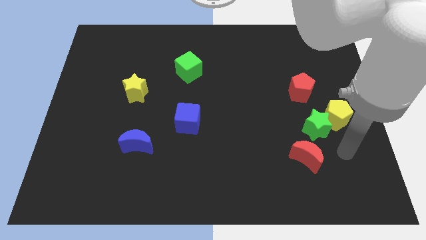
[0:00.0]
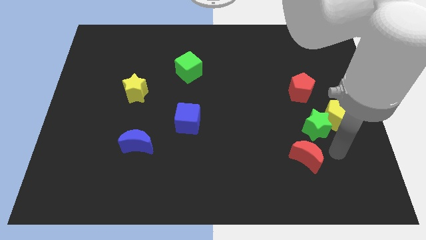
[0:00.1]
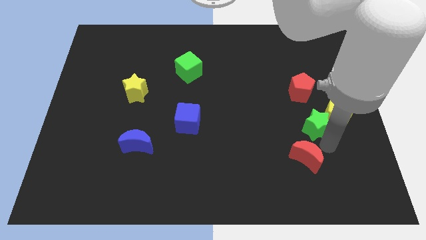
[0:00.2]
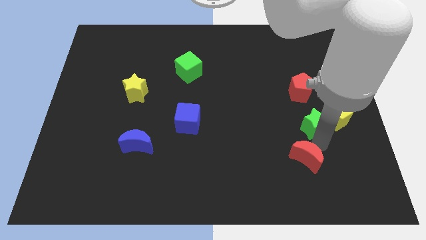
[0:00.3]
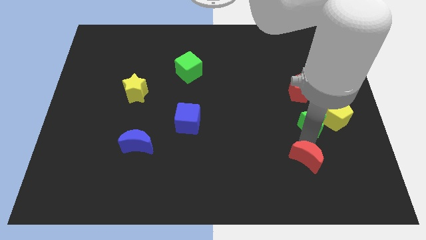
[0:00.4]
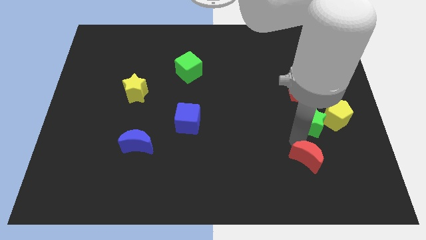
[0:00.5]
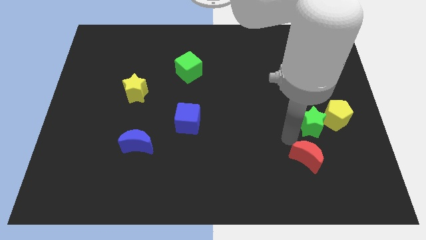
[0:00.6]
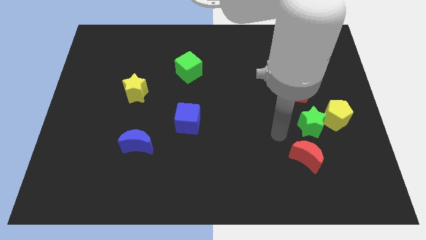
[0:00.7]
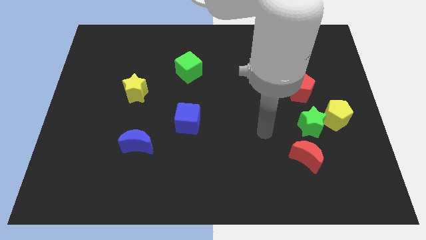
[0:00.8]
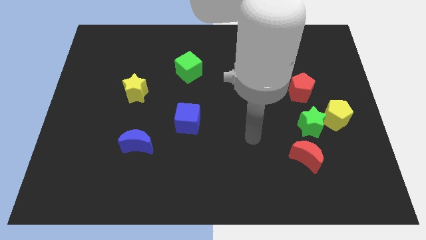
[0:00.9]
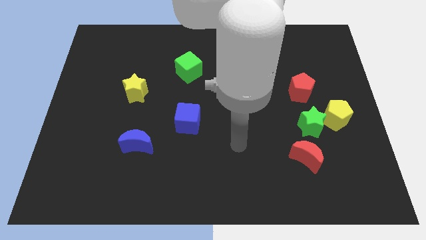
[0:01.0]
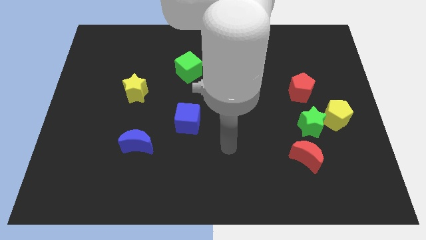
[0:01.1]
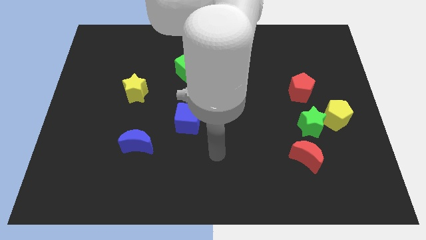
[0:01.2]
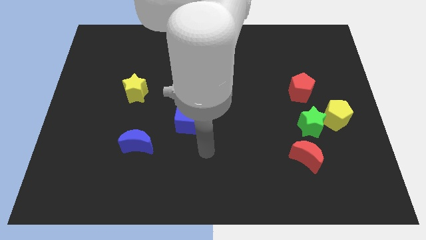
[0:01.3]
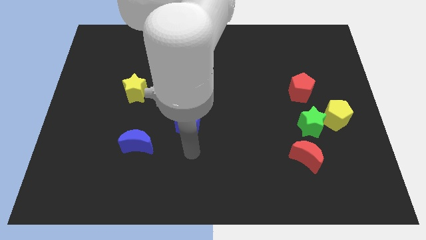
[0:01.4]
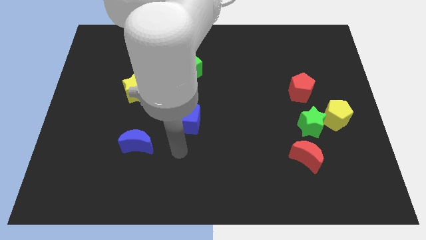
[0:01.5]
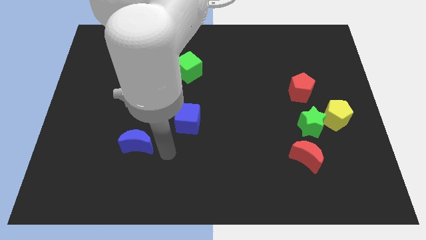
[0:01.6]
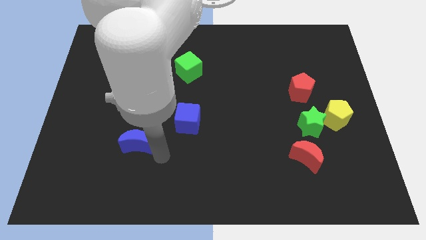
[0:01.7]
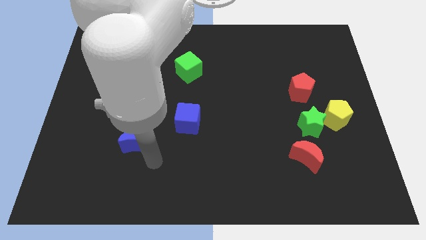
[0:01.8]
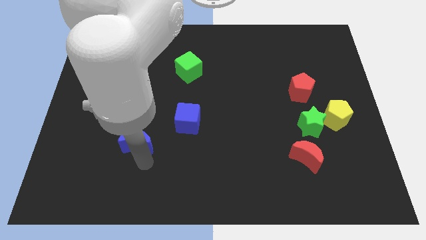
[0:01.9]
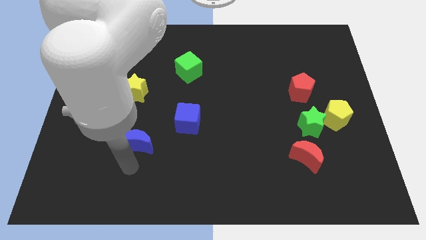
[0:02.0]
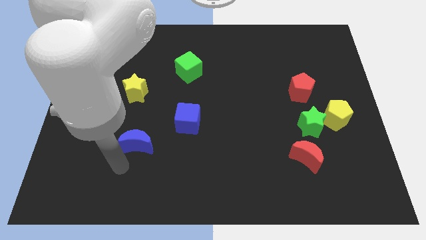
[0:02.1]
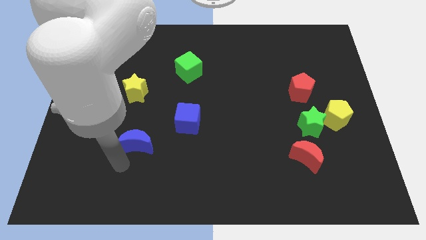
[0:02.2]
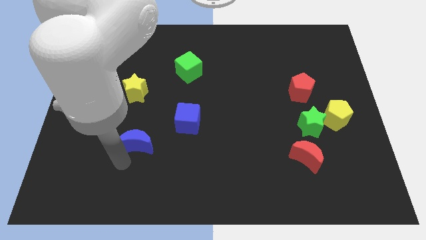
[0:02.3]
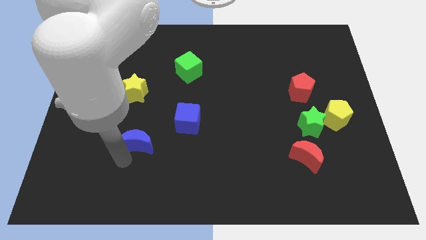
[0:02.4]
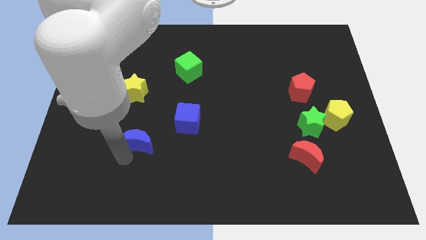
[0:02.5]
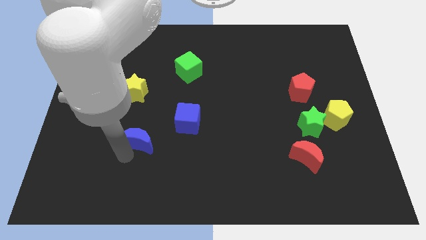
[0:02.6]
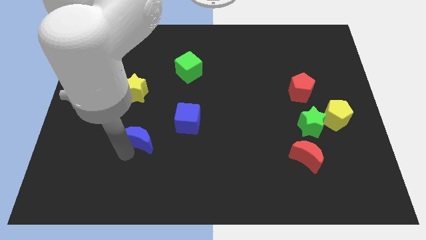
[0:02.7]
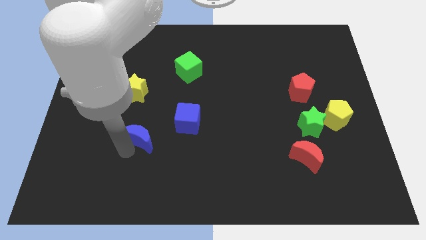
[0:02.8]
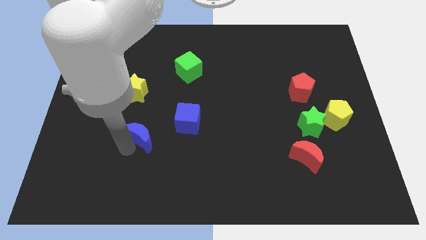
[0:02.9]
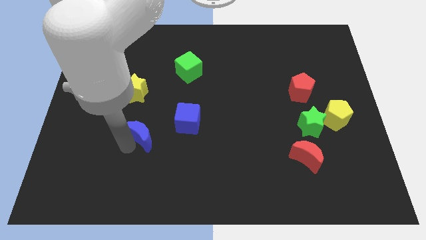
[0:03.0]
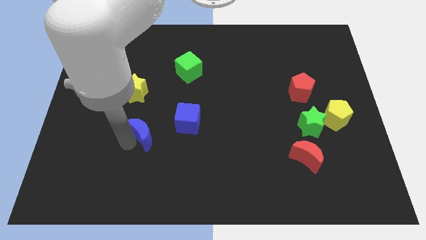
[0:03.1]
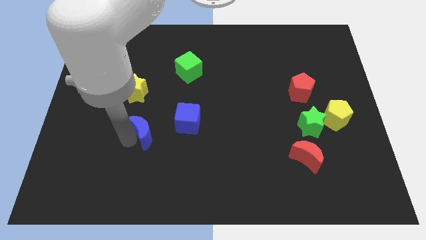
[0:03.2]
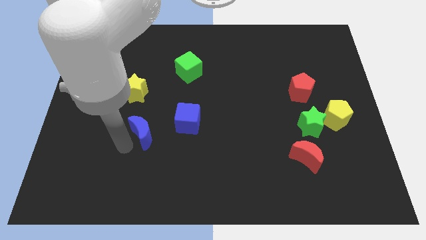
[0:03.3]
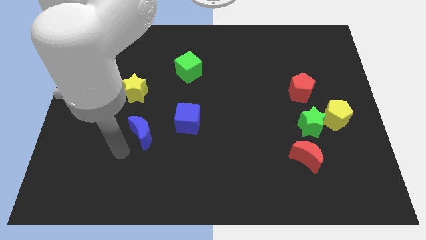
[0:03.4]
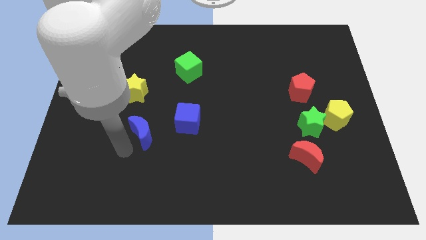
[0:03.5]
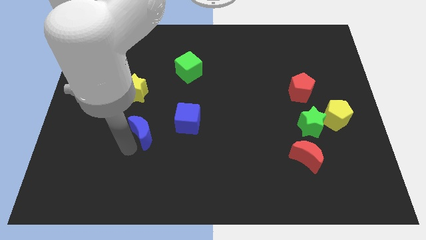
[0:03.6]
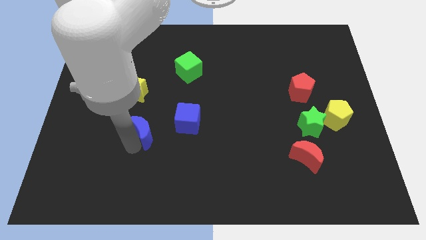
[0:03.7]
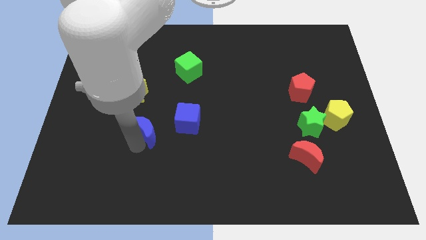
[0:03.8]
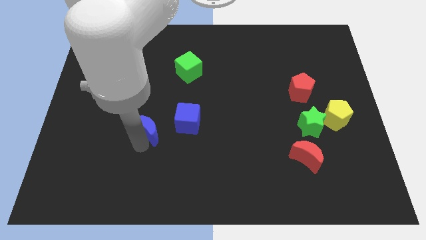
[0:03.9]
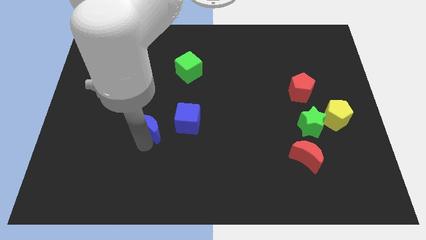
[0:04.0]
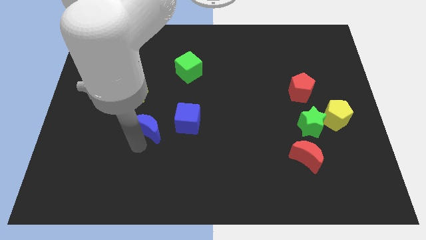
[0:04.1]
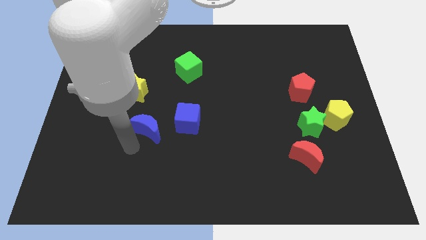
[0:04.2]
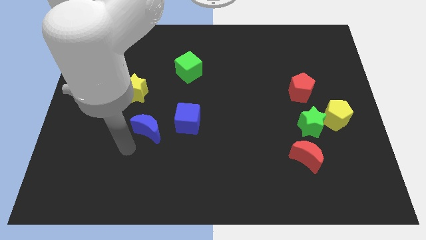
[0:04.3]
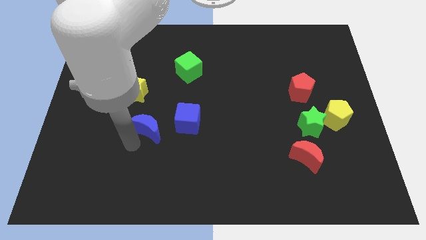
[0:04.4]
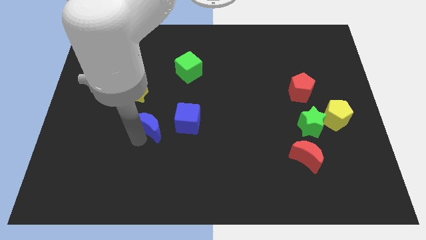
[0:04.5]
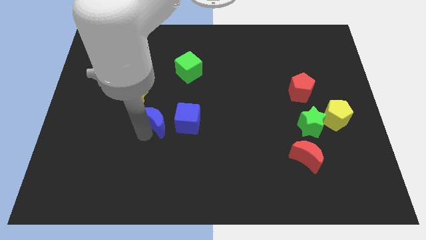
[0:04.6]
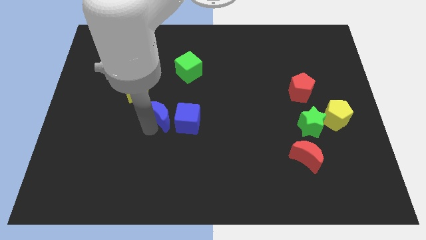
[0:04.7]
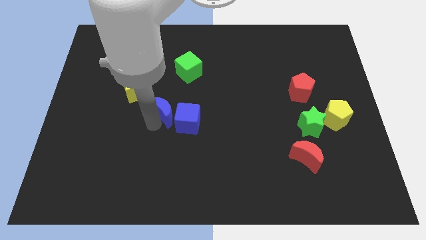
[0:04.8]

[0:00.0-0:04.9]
push the blue moon to the middle of the board

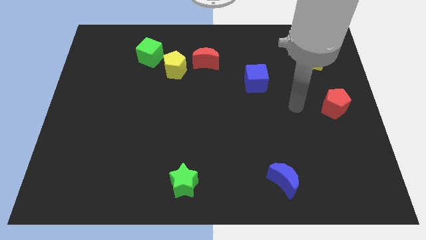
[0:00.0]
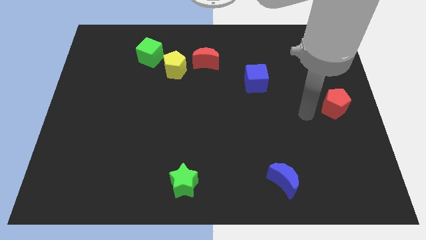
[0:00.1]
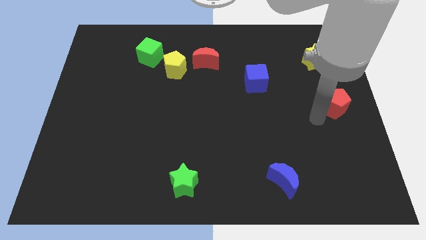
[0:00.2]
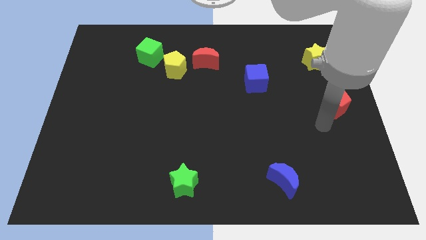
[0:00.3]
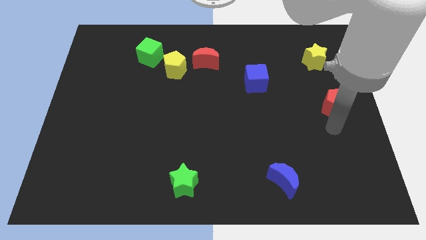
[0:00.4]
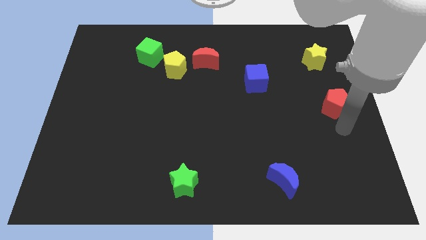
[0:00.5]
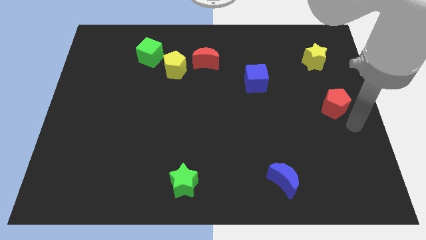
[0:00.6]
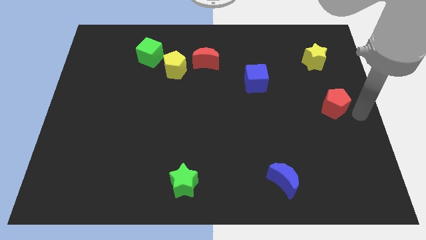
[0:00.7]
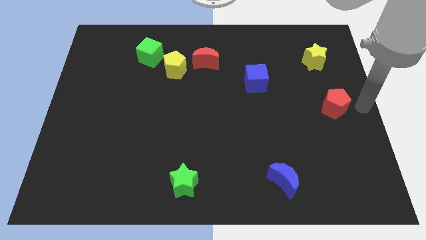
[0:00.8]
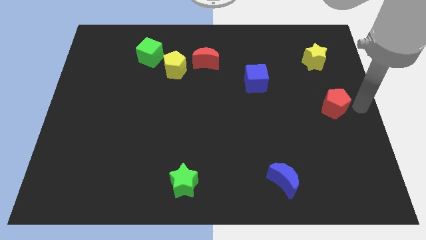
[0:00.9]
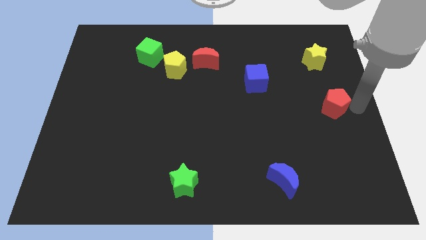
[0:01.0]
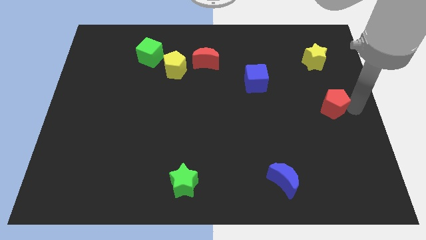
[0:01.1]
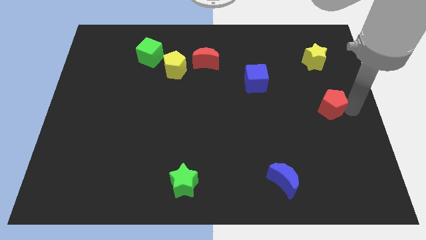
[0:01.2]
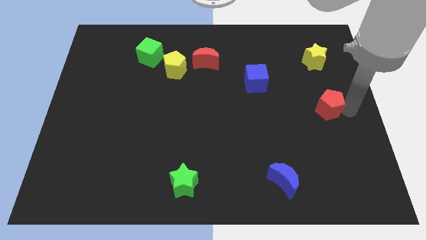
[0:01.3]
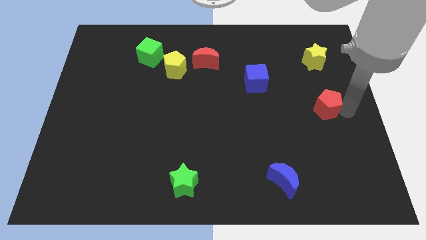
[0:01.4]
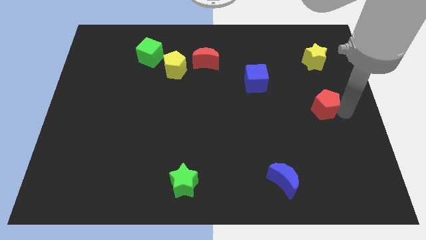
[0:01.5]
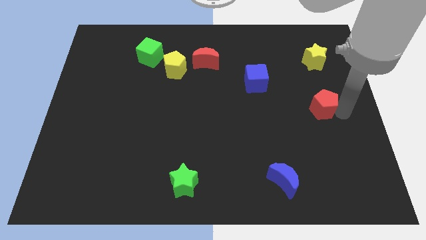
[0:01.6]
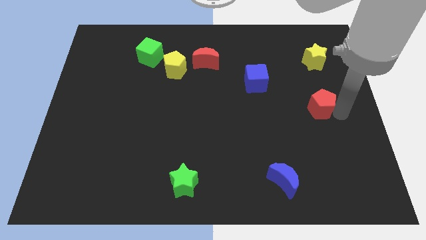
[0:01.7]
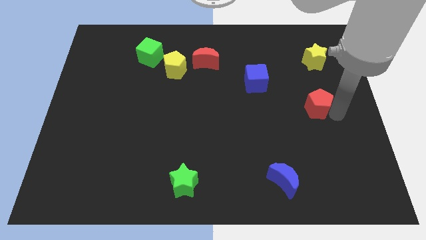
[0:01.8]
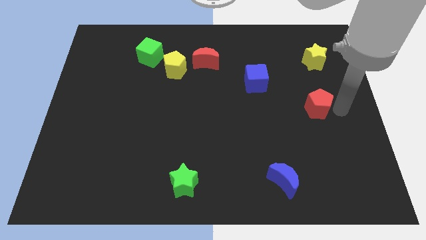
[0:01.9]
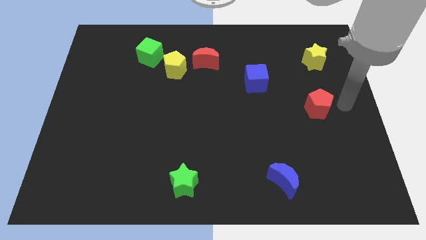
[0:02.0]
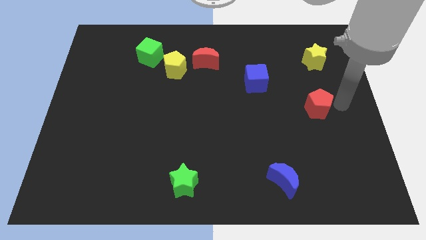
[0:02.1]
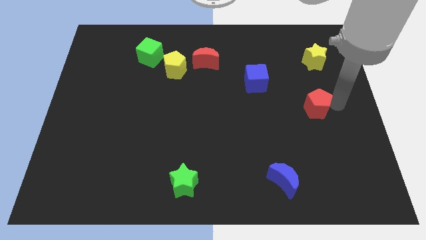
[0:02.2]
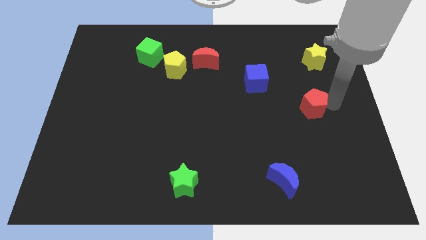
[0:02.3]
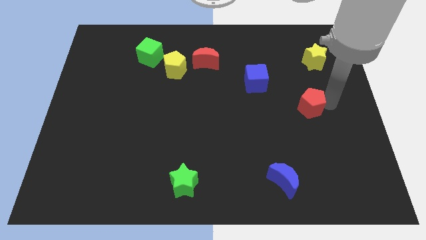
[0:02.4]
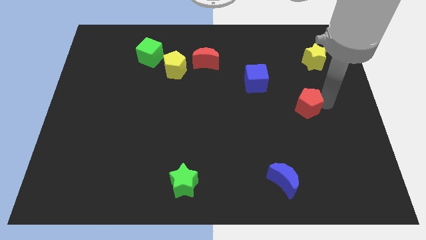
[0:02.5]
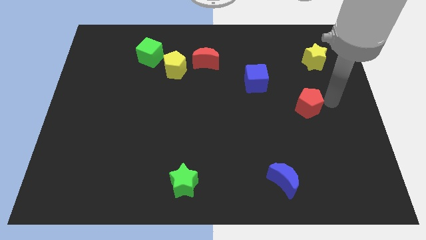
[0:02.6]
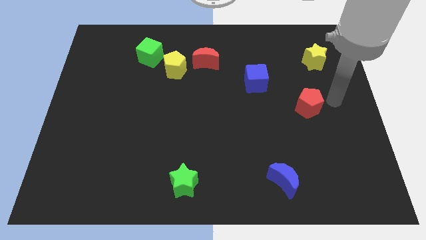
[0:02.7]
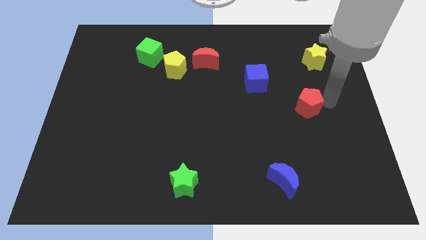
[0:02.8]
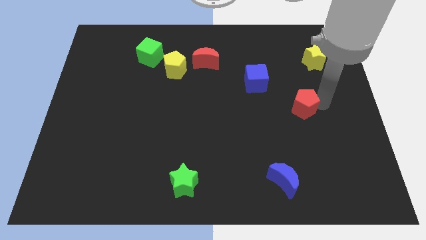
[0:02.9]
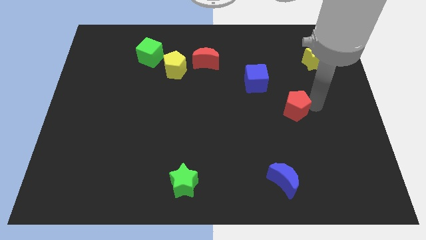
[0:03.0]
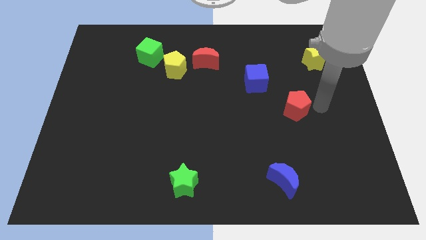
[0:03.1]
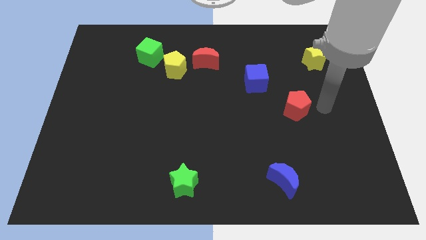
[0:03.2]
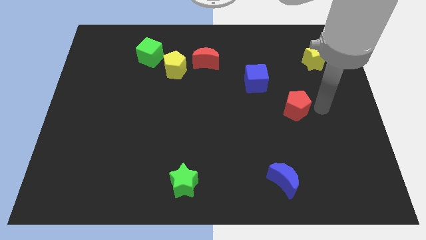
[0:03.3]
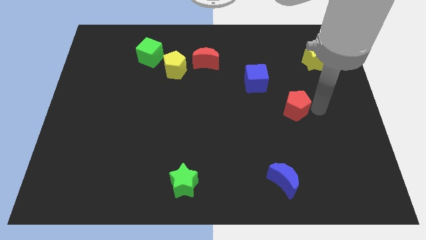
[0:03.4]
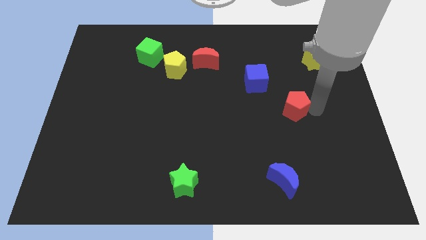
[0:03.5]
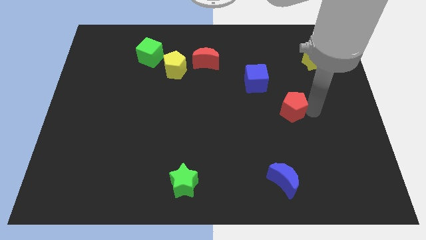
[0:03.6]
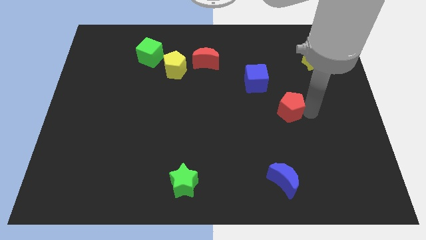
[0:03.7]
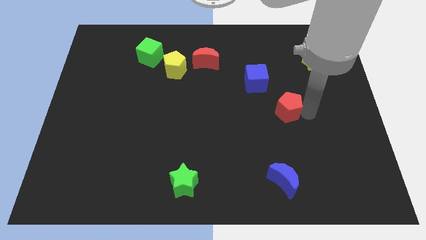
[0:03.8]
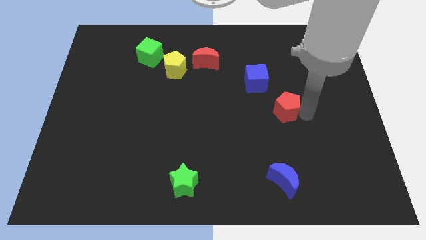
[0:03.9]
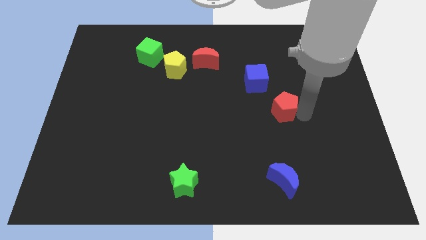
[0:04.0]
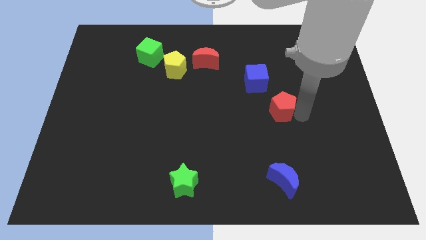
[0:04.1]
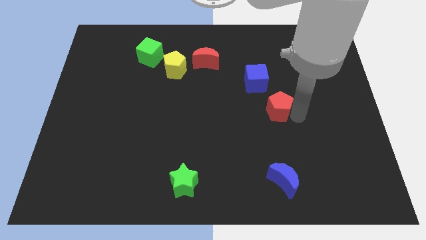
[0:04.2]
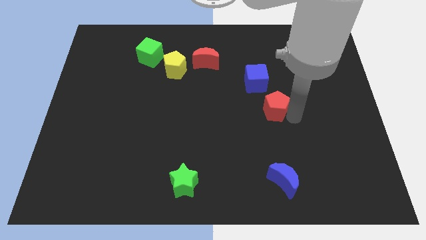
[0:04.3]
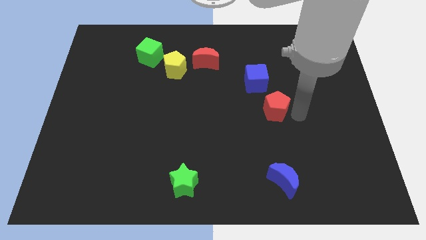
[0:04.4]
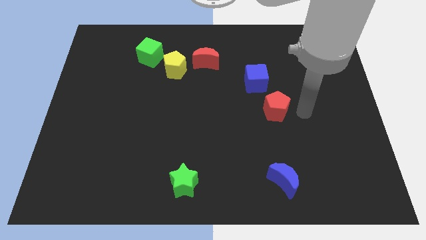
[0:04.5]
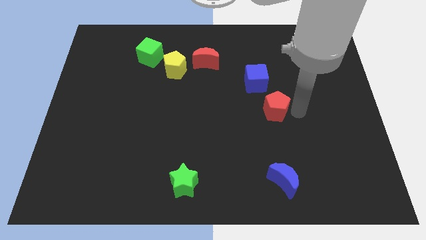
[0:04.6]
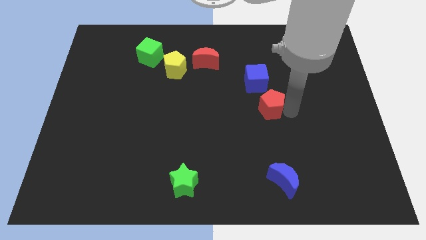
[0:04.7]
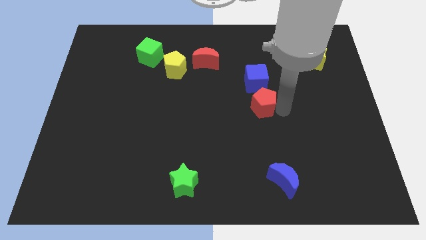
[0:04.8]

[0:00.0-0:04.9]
slide the red pentagon to the center of the board
